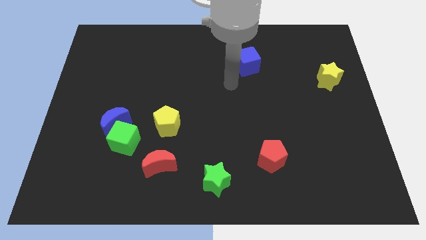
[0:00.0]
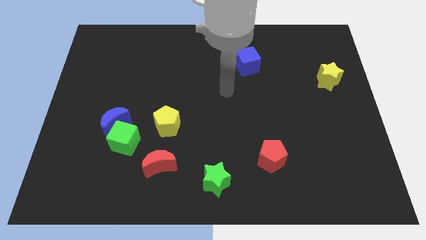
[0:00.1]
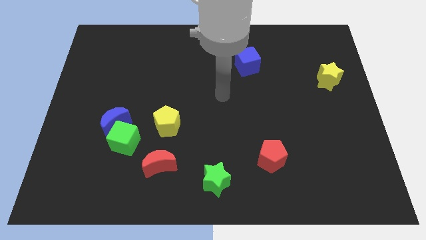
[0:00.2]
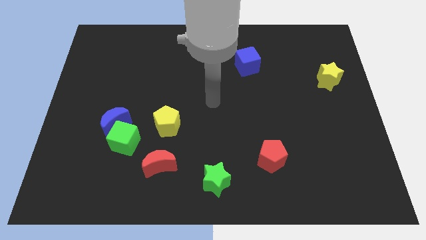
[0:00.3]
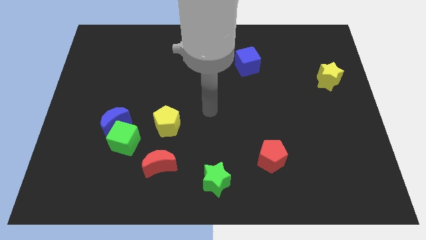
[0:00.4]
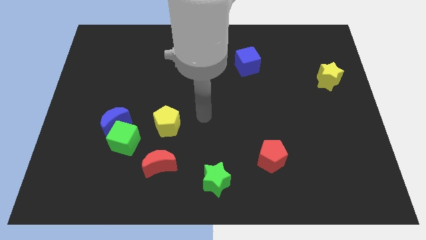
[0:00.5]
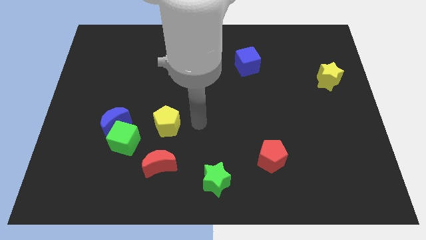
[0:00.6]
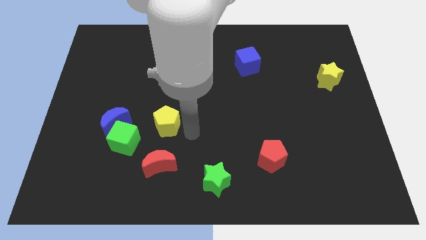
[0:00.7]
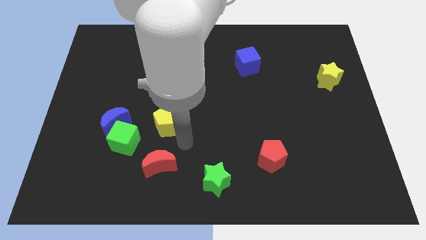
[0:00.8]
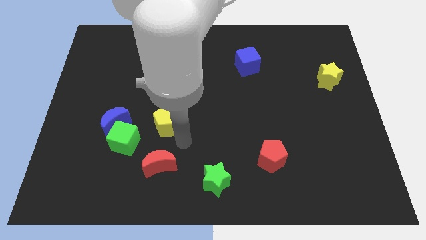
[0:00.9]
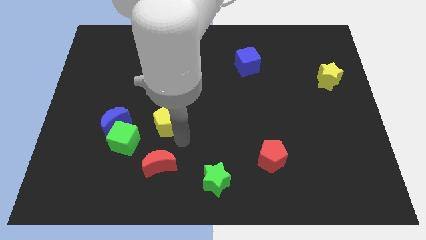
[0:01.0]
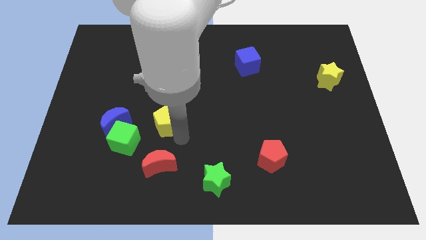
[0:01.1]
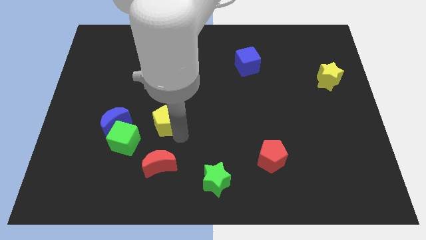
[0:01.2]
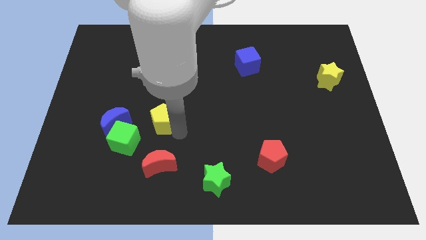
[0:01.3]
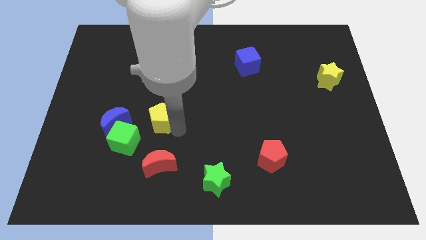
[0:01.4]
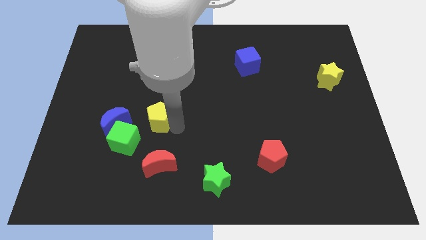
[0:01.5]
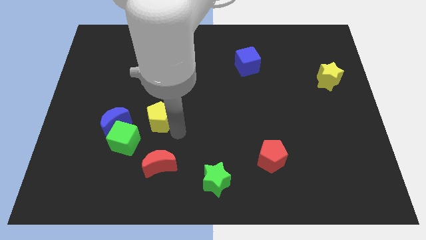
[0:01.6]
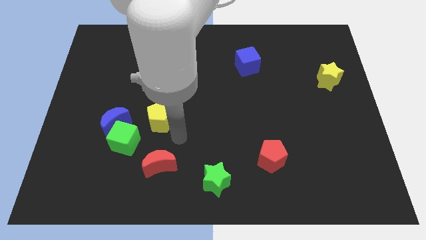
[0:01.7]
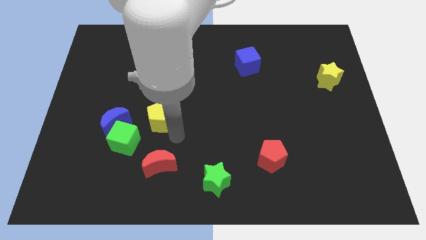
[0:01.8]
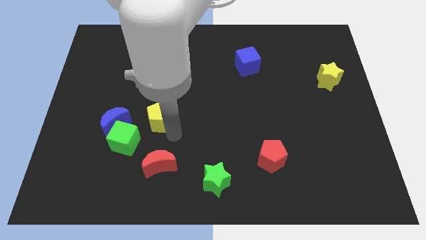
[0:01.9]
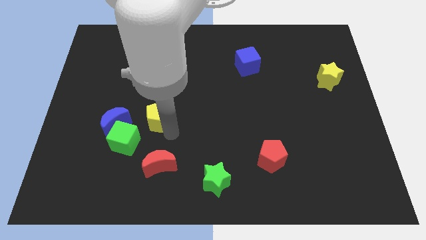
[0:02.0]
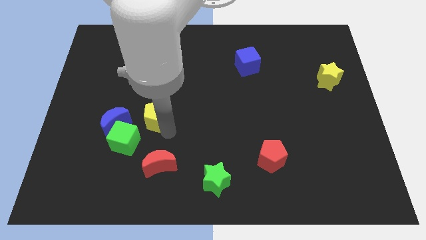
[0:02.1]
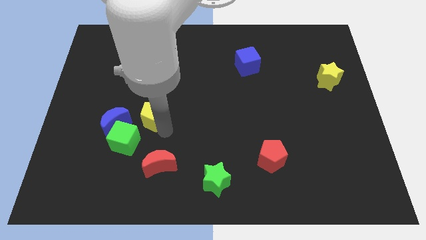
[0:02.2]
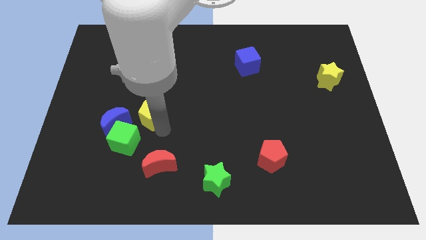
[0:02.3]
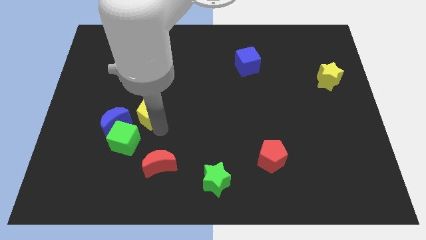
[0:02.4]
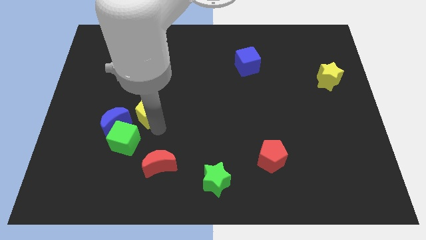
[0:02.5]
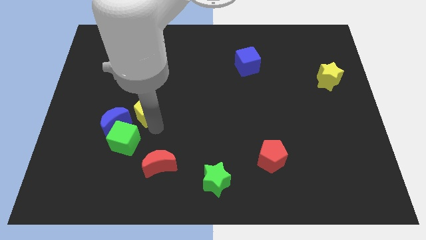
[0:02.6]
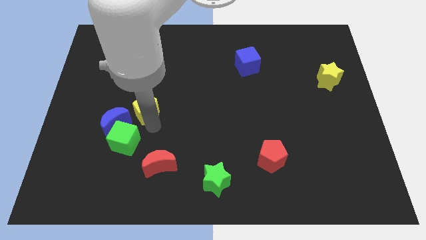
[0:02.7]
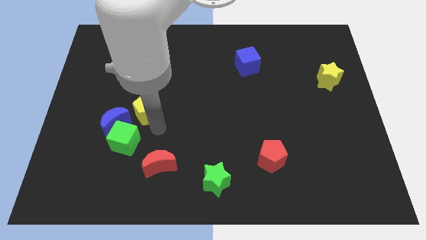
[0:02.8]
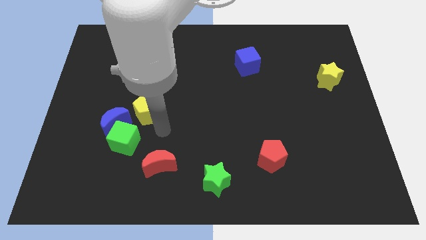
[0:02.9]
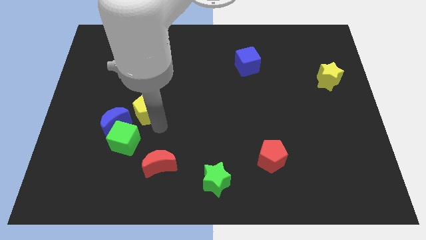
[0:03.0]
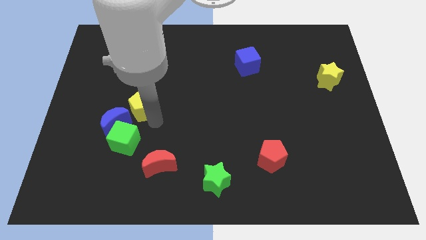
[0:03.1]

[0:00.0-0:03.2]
move the yellow pentagon a little bit upwards and to the left diagonally

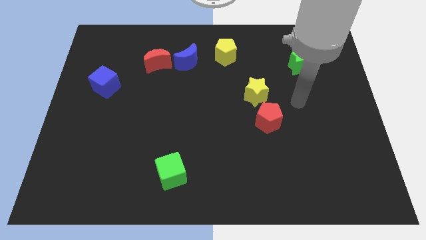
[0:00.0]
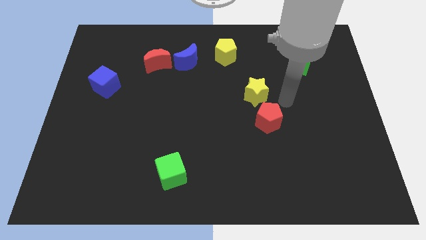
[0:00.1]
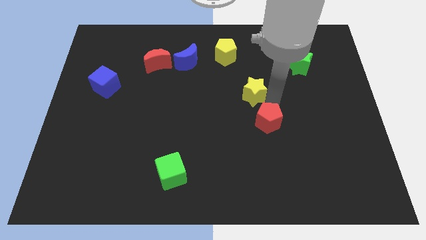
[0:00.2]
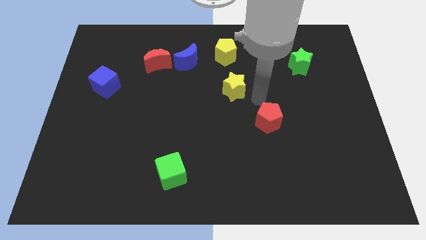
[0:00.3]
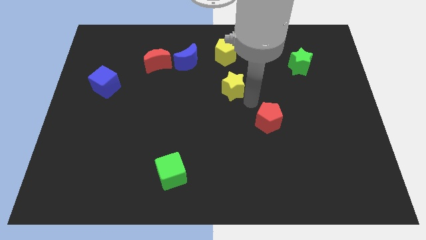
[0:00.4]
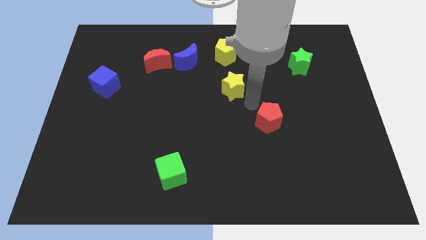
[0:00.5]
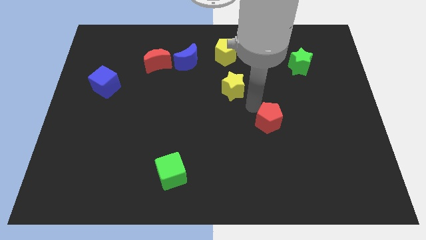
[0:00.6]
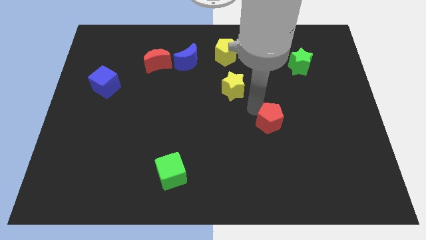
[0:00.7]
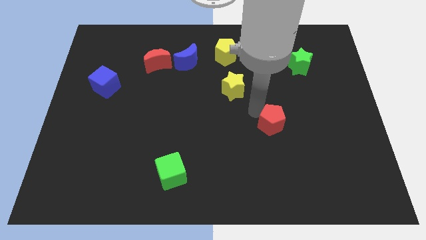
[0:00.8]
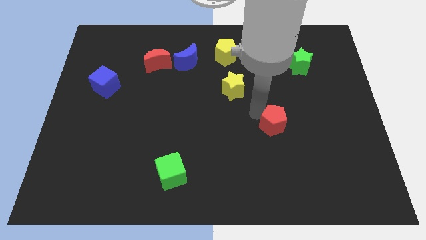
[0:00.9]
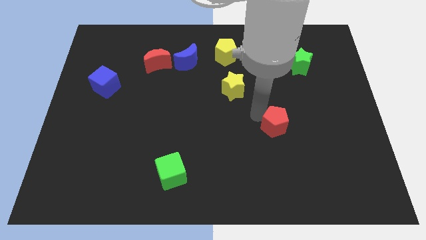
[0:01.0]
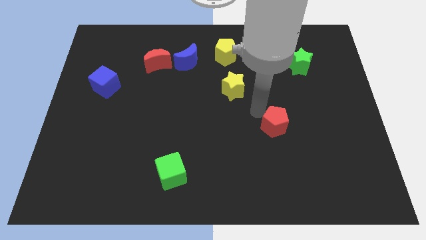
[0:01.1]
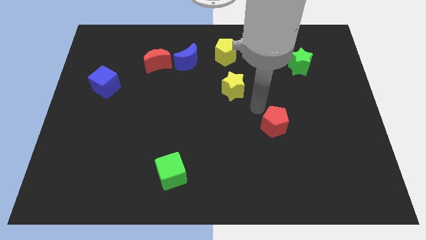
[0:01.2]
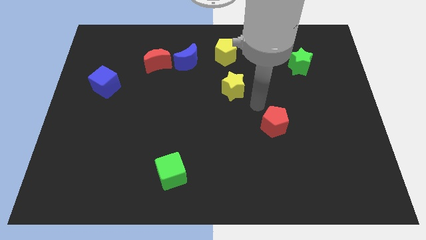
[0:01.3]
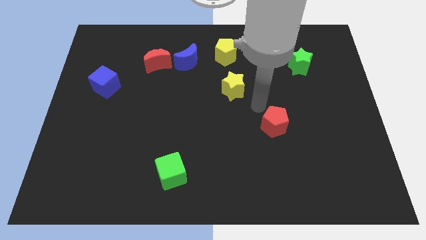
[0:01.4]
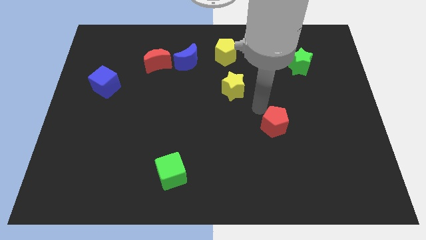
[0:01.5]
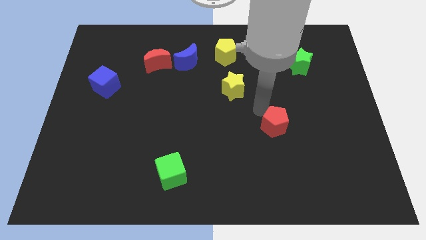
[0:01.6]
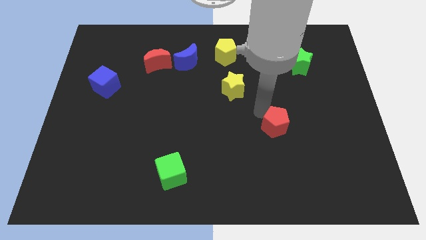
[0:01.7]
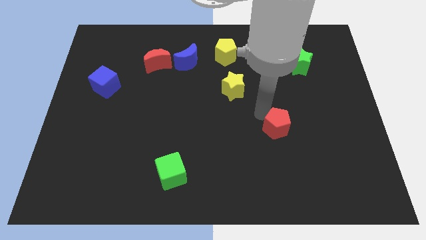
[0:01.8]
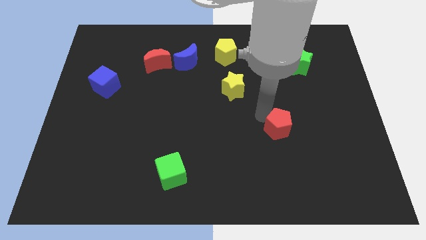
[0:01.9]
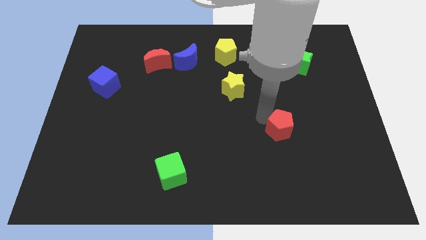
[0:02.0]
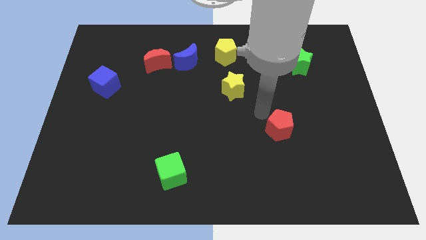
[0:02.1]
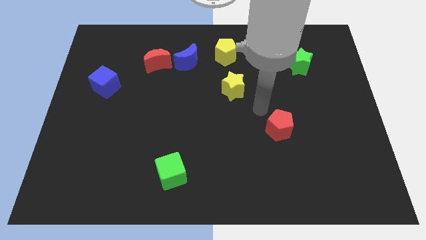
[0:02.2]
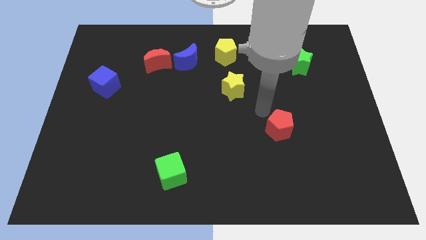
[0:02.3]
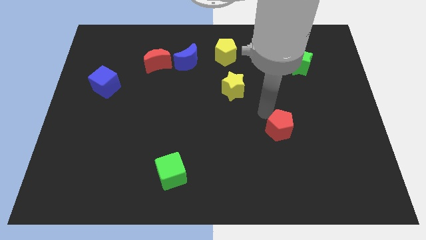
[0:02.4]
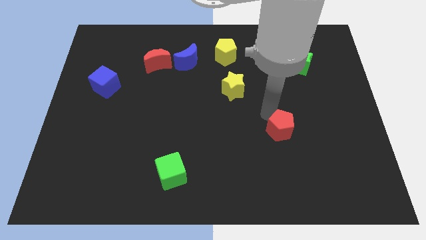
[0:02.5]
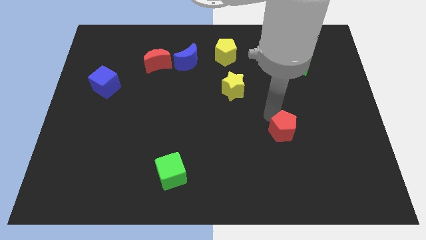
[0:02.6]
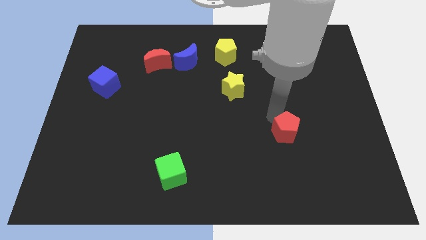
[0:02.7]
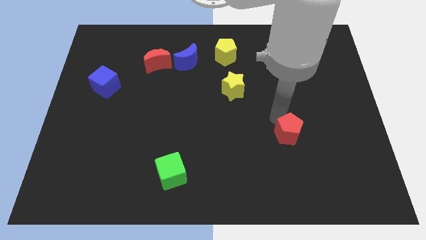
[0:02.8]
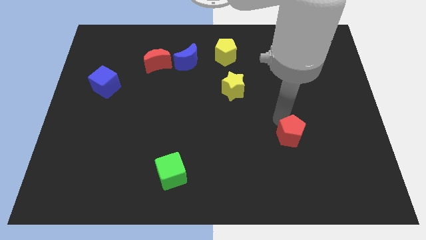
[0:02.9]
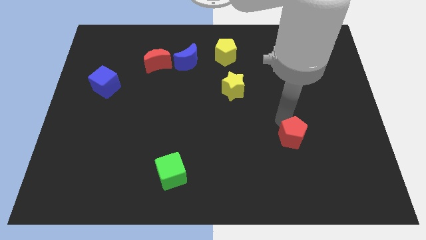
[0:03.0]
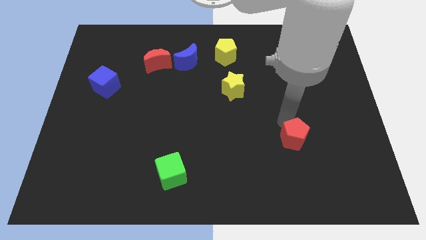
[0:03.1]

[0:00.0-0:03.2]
move the red pentagon down and right diagonally slightly

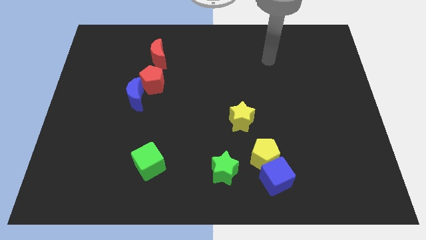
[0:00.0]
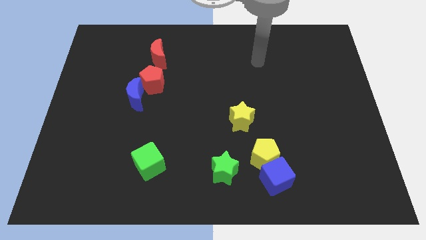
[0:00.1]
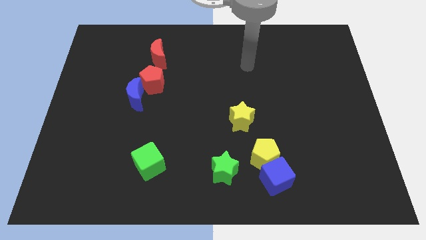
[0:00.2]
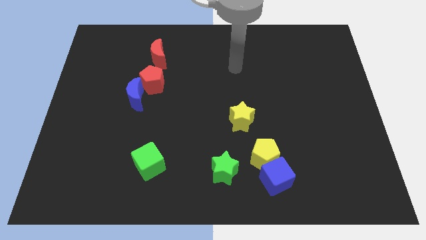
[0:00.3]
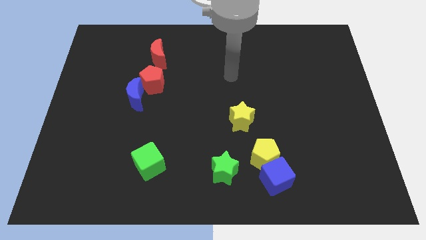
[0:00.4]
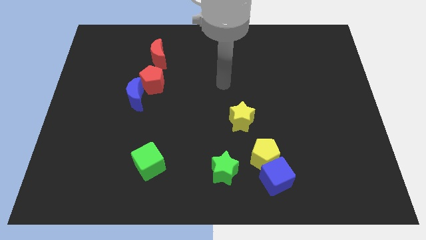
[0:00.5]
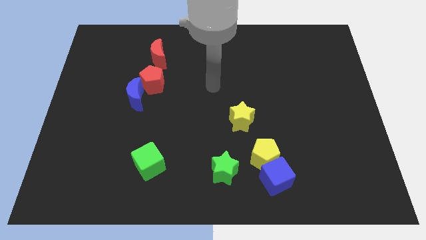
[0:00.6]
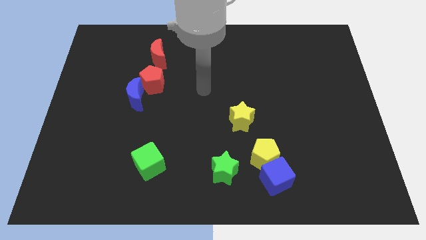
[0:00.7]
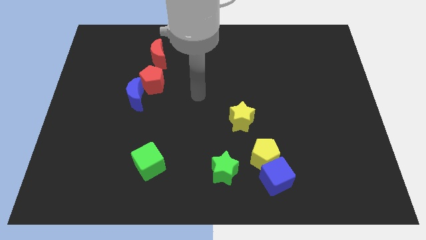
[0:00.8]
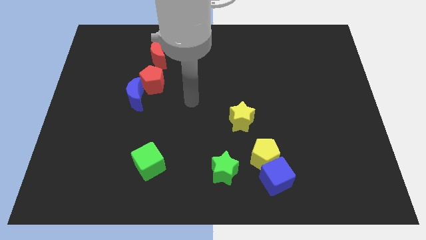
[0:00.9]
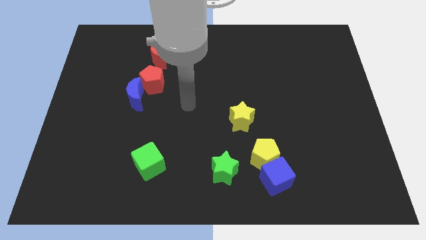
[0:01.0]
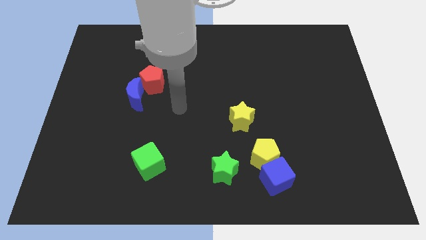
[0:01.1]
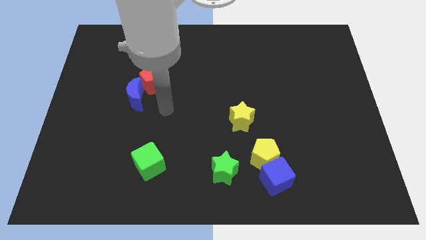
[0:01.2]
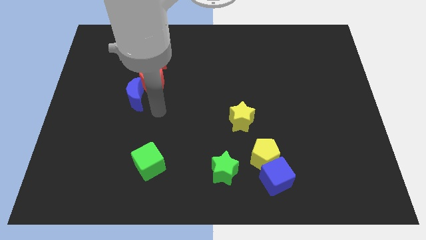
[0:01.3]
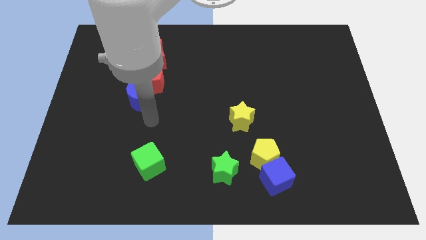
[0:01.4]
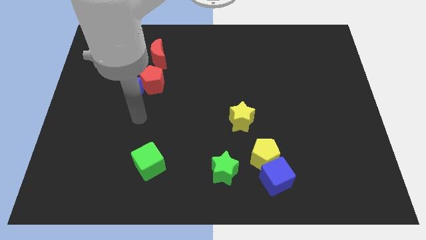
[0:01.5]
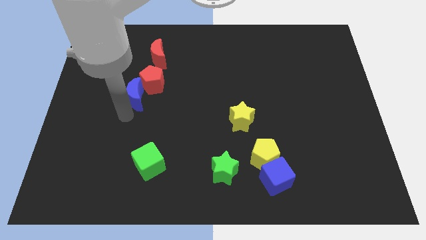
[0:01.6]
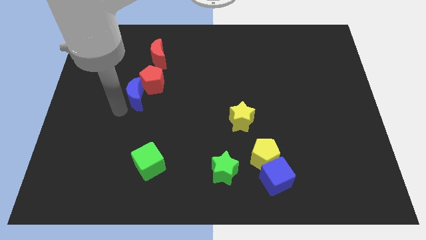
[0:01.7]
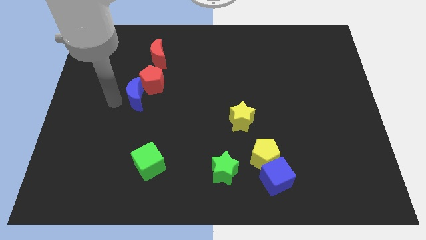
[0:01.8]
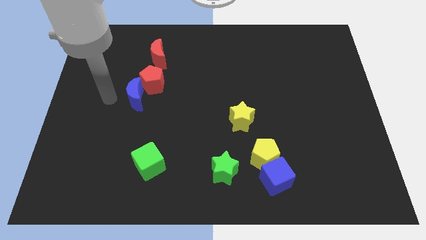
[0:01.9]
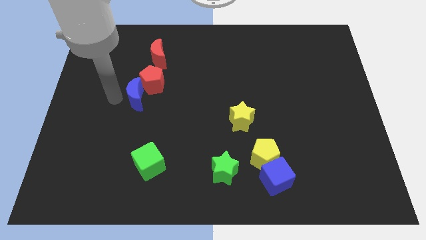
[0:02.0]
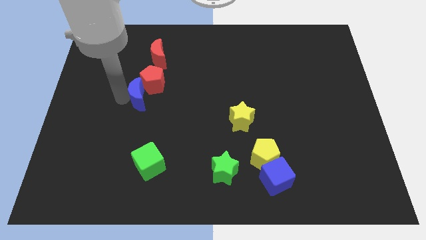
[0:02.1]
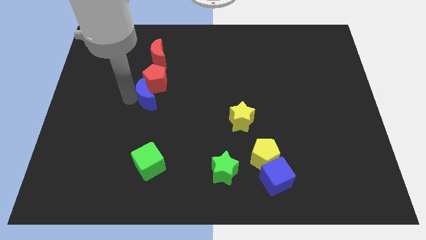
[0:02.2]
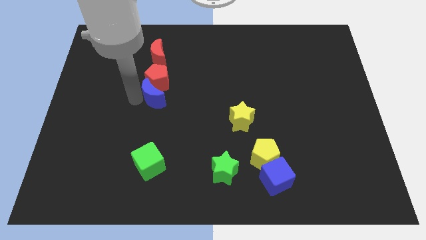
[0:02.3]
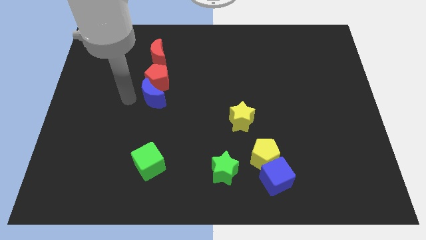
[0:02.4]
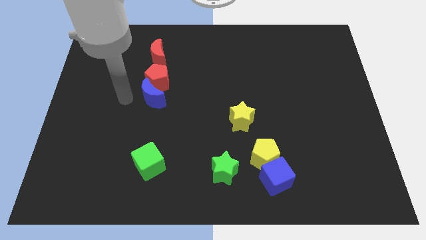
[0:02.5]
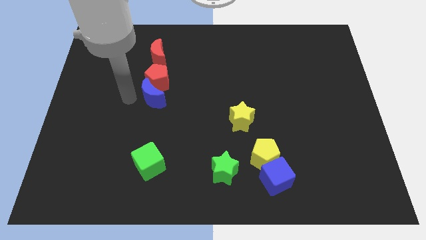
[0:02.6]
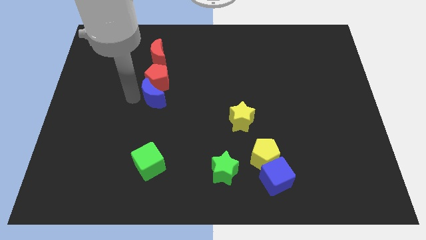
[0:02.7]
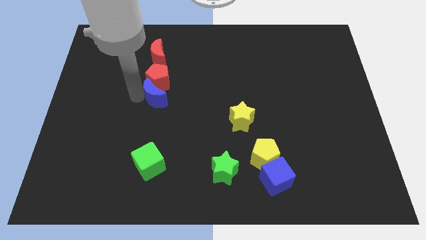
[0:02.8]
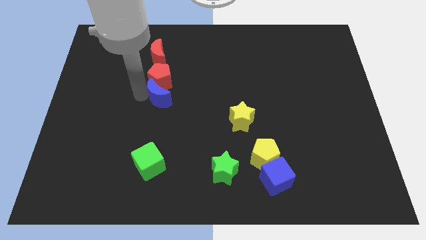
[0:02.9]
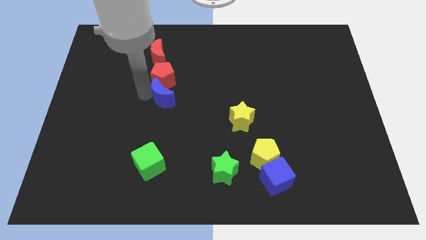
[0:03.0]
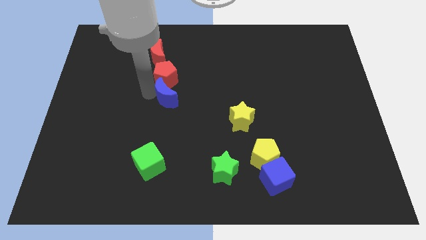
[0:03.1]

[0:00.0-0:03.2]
slightly slide the blue moon right
